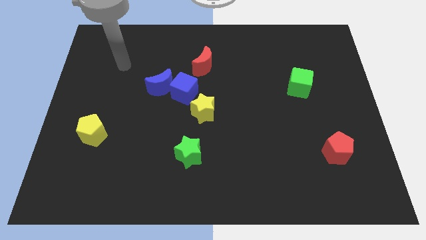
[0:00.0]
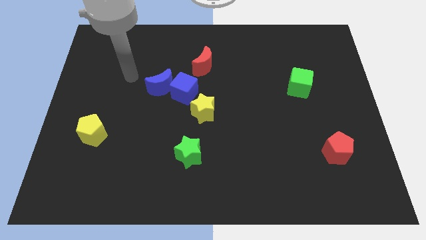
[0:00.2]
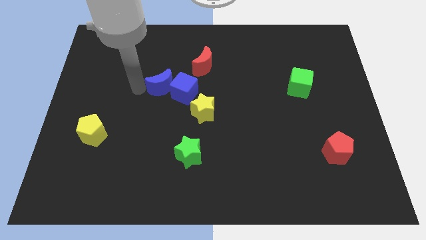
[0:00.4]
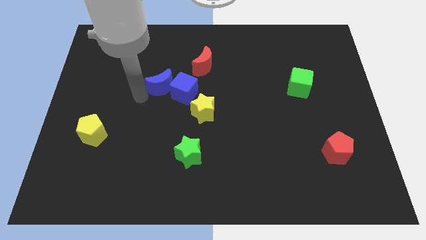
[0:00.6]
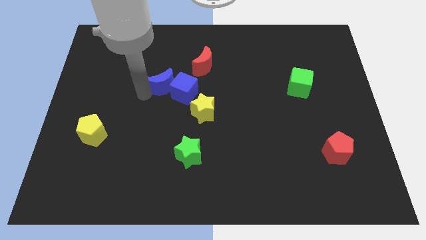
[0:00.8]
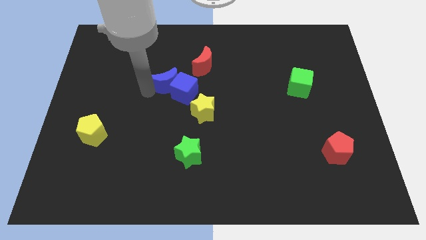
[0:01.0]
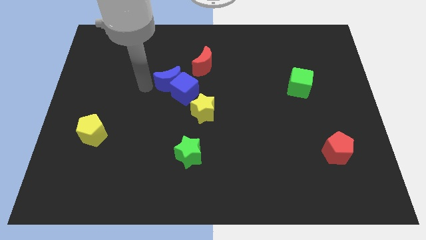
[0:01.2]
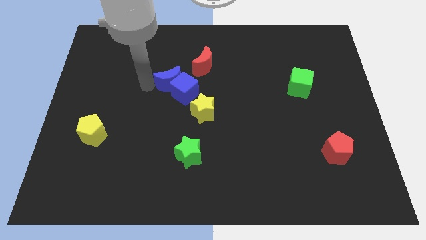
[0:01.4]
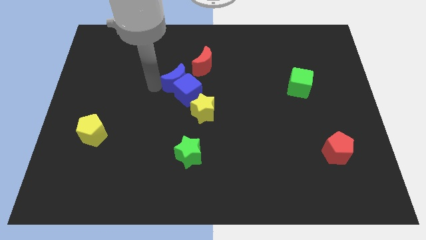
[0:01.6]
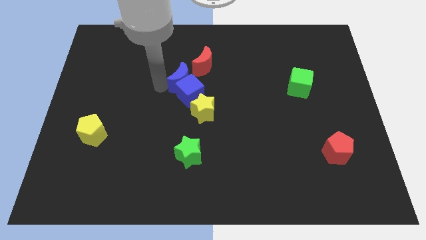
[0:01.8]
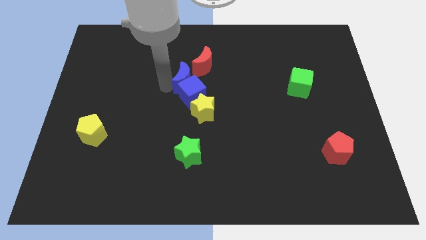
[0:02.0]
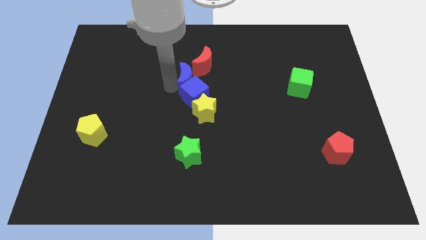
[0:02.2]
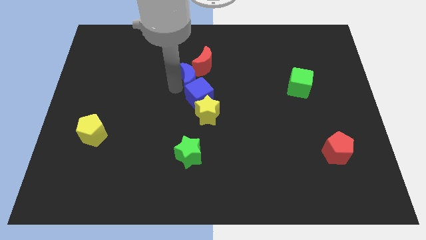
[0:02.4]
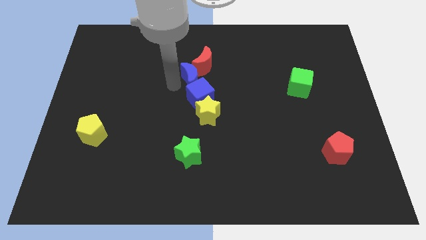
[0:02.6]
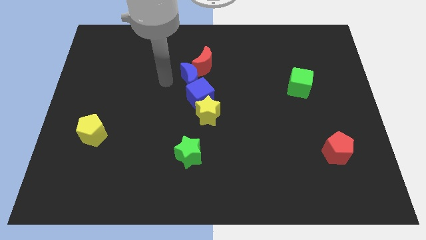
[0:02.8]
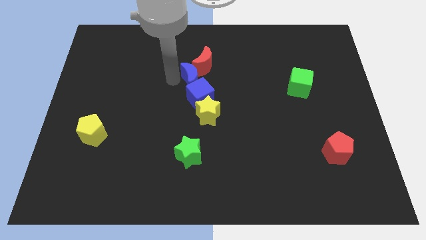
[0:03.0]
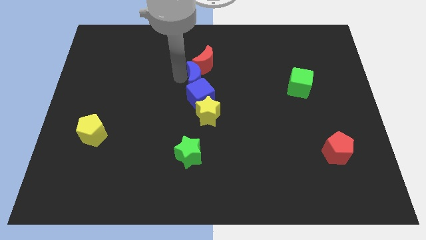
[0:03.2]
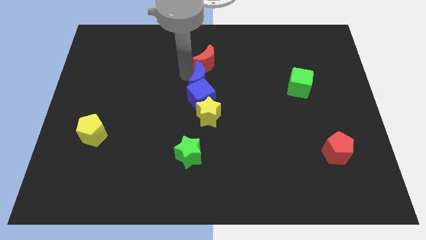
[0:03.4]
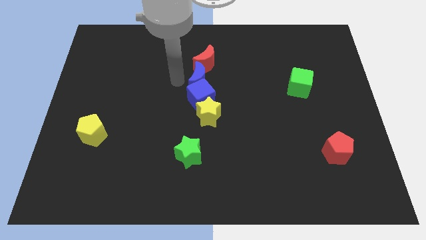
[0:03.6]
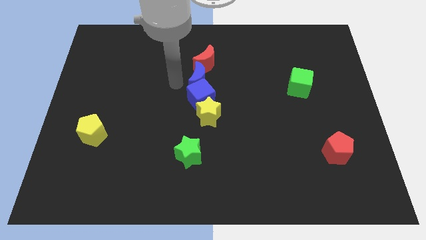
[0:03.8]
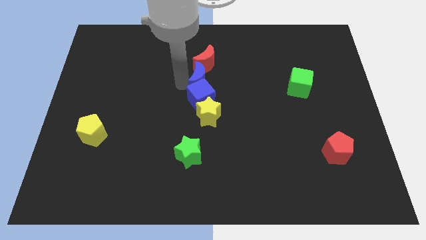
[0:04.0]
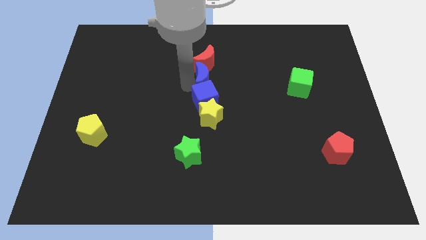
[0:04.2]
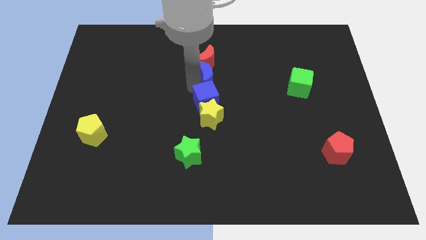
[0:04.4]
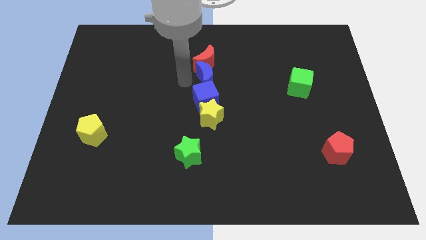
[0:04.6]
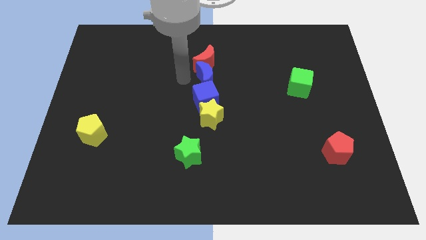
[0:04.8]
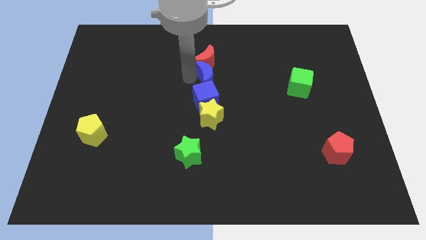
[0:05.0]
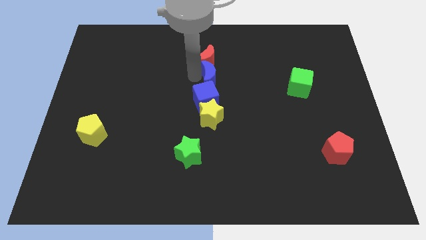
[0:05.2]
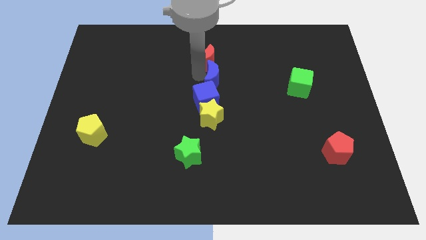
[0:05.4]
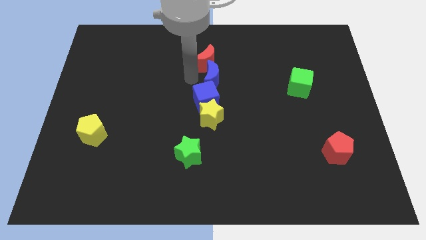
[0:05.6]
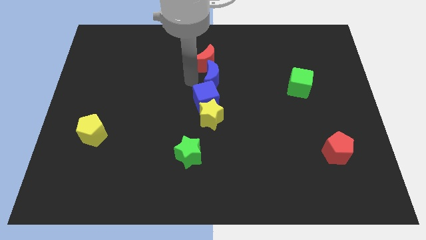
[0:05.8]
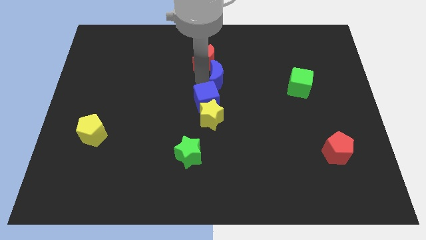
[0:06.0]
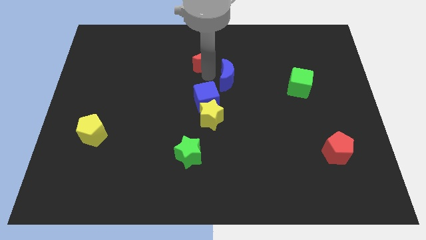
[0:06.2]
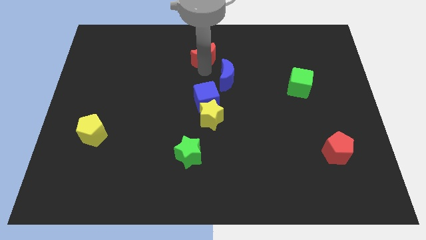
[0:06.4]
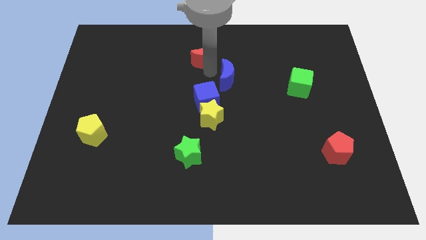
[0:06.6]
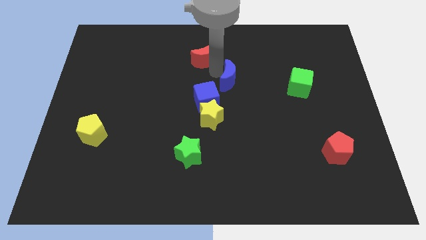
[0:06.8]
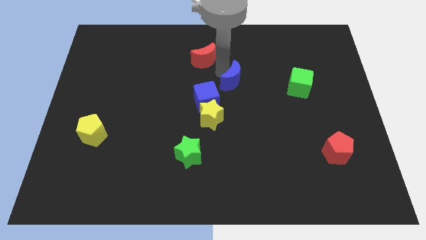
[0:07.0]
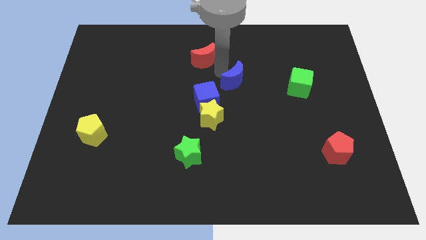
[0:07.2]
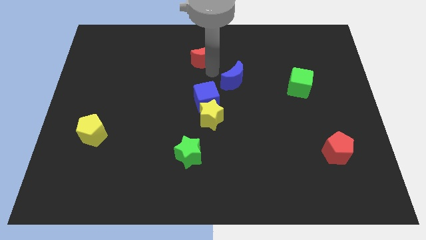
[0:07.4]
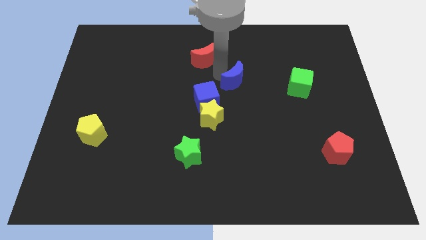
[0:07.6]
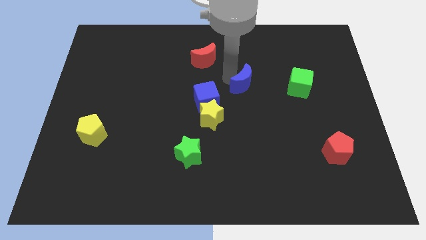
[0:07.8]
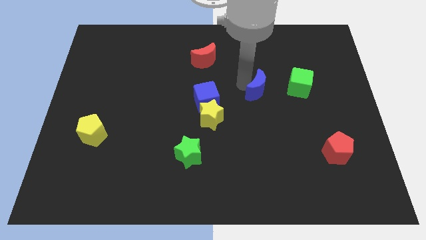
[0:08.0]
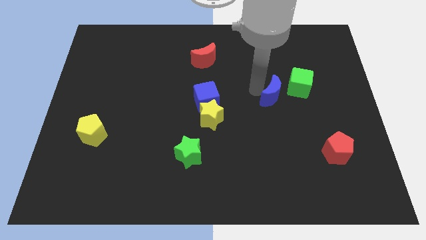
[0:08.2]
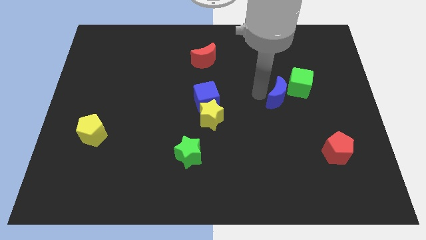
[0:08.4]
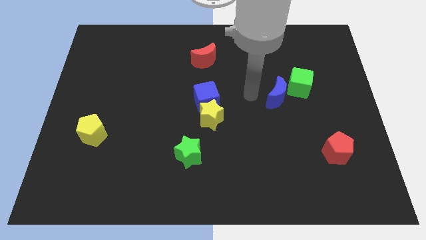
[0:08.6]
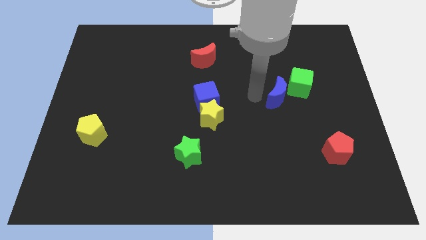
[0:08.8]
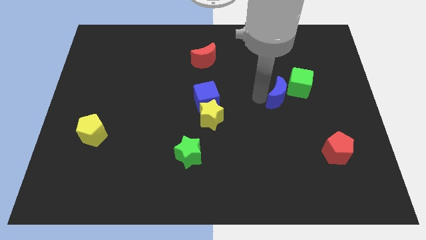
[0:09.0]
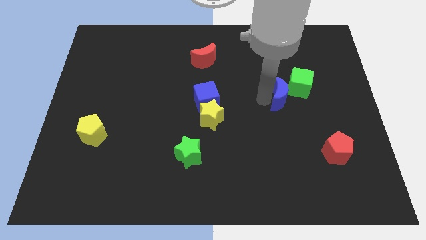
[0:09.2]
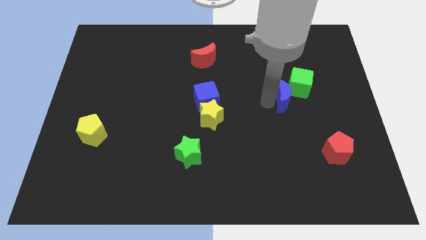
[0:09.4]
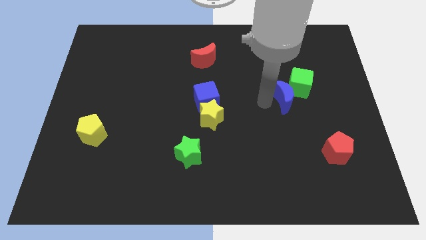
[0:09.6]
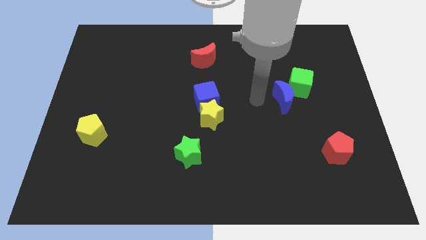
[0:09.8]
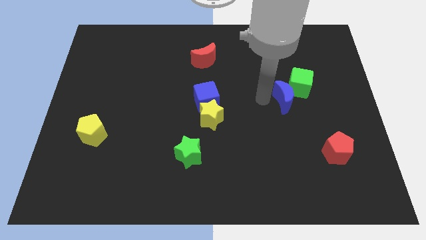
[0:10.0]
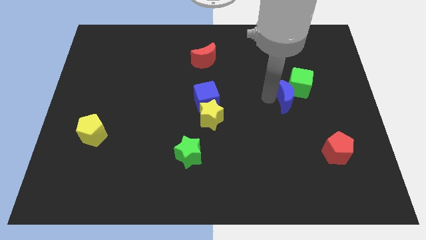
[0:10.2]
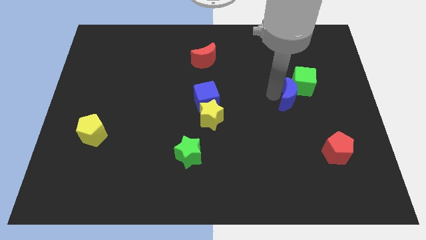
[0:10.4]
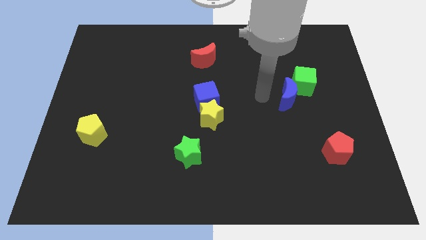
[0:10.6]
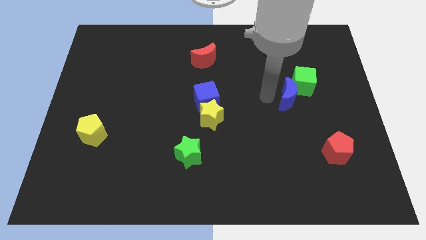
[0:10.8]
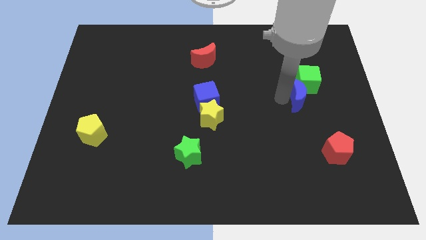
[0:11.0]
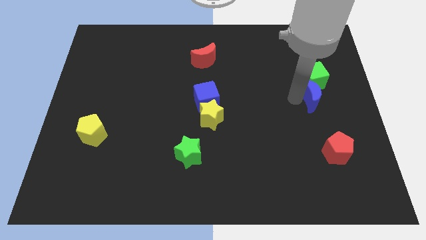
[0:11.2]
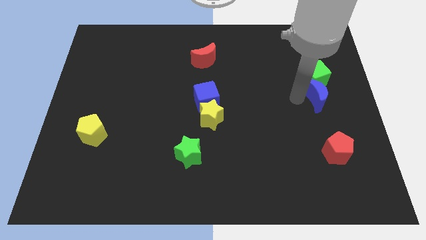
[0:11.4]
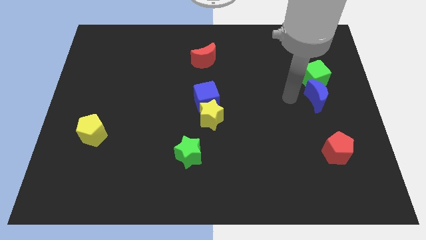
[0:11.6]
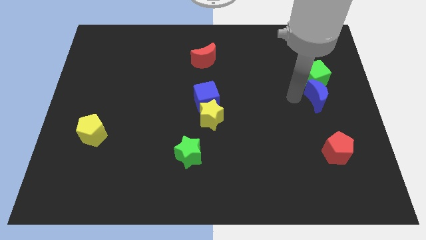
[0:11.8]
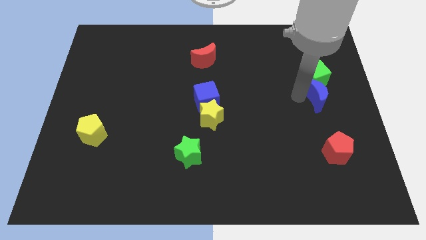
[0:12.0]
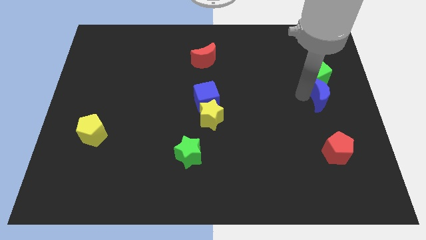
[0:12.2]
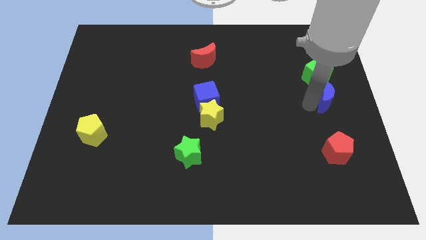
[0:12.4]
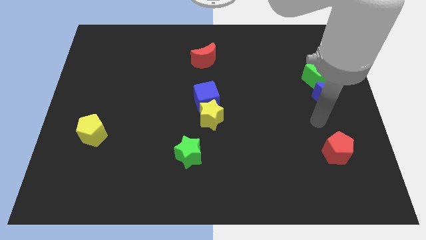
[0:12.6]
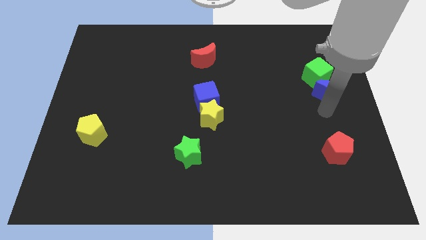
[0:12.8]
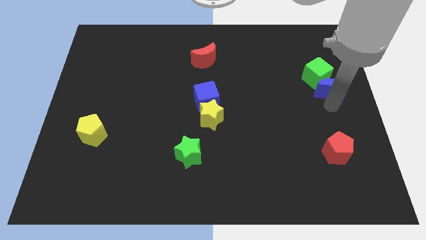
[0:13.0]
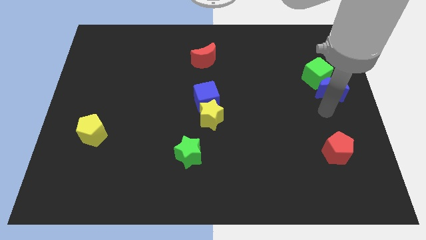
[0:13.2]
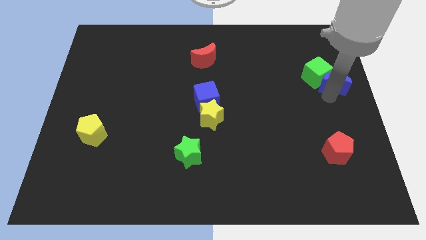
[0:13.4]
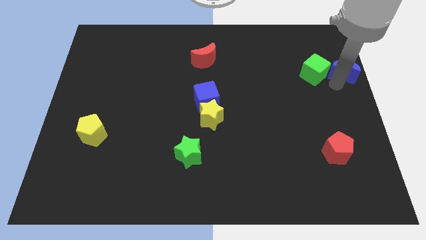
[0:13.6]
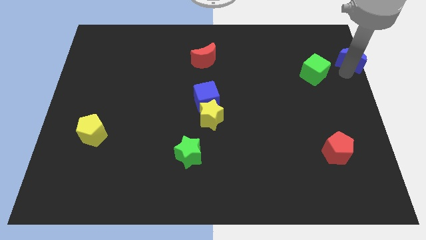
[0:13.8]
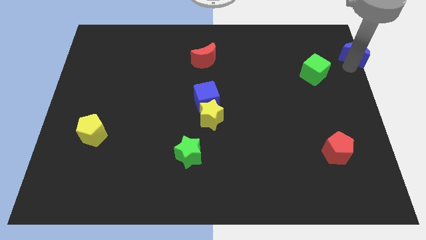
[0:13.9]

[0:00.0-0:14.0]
slide the blue moon to the top right of the board
